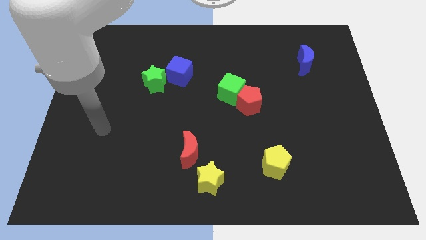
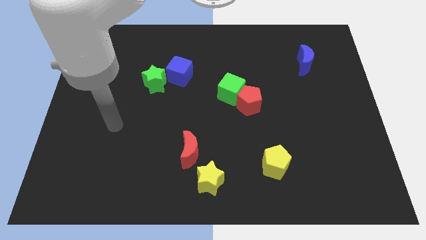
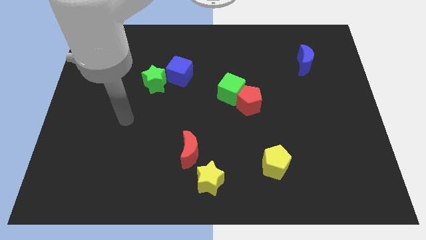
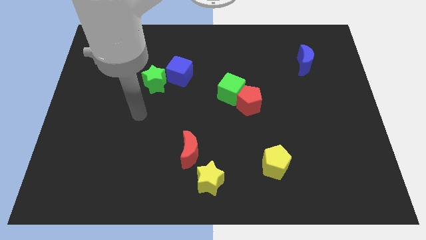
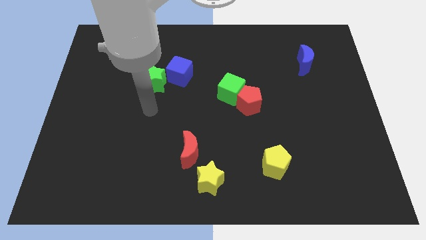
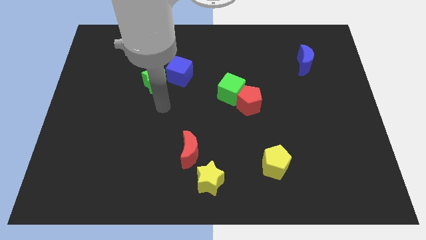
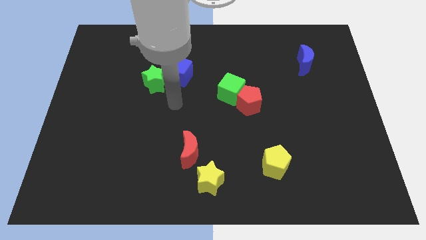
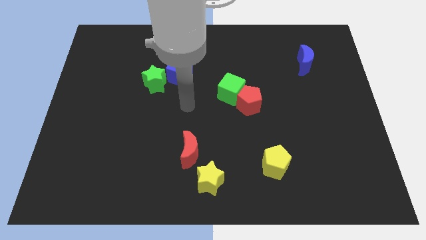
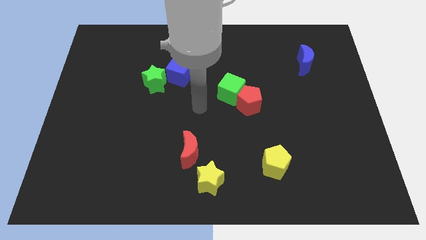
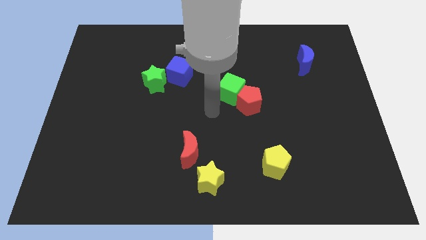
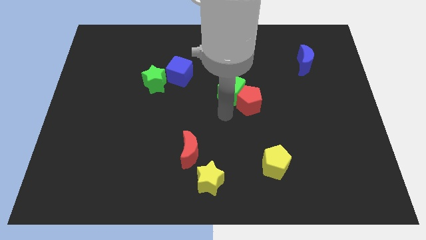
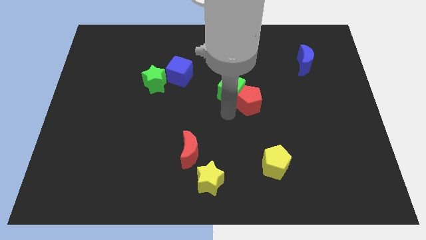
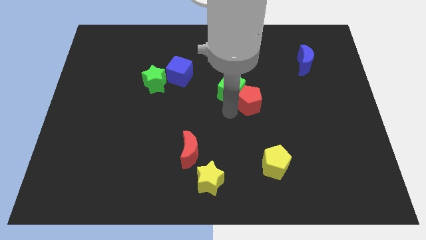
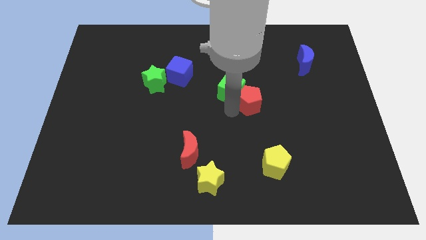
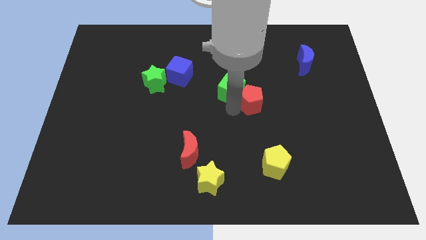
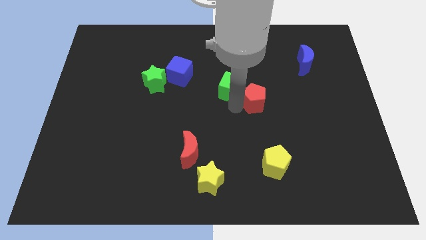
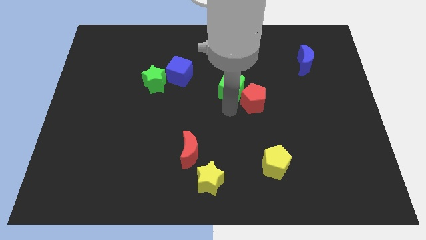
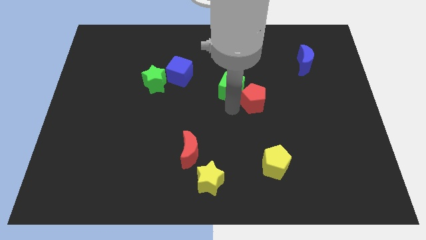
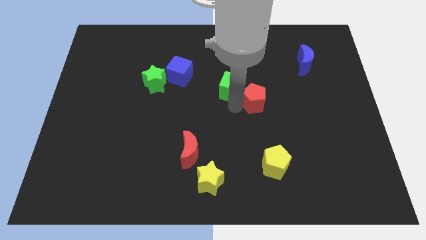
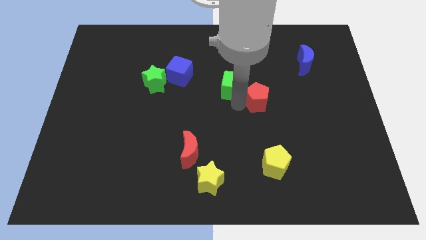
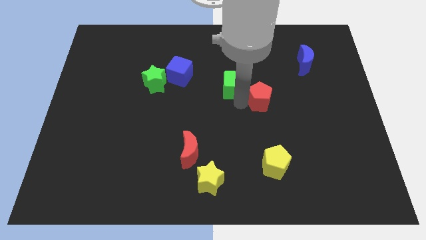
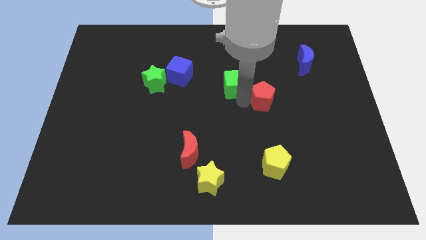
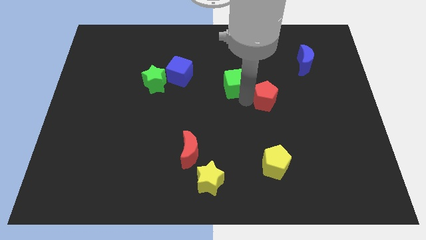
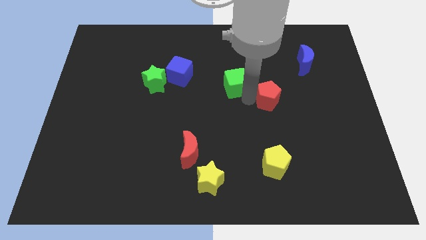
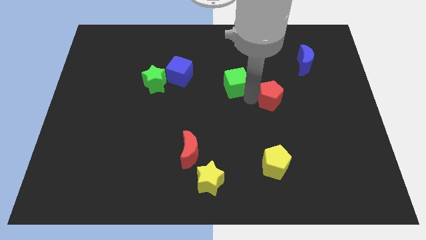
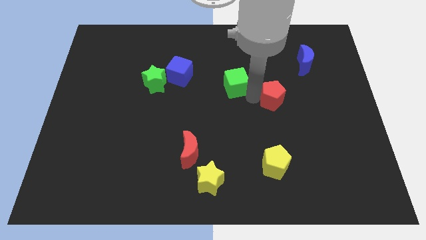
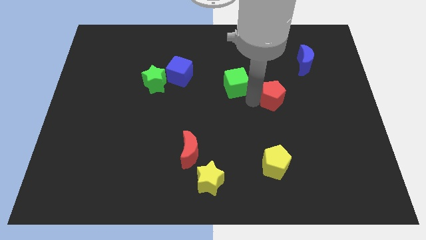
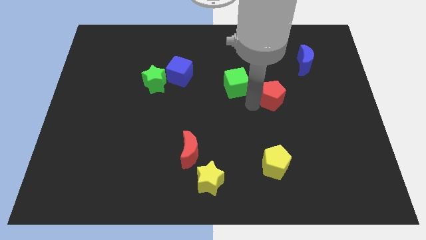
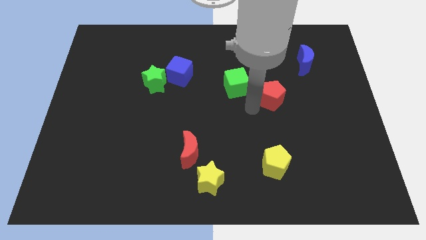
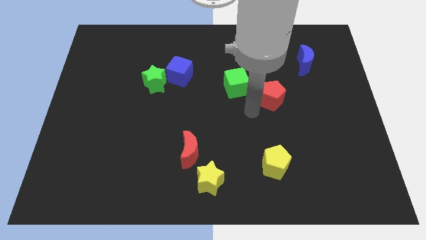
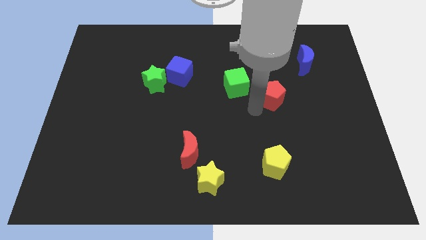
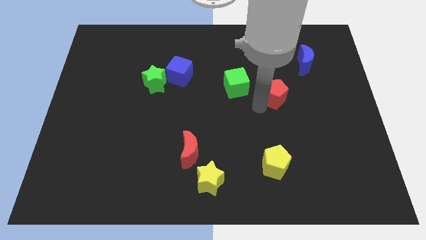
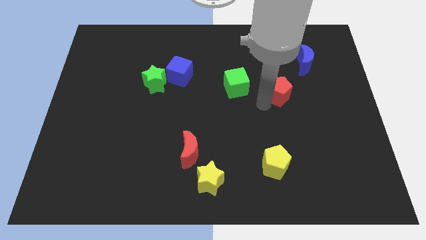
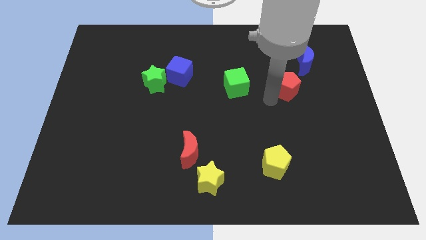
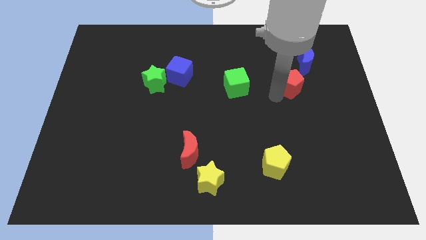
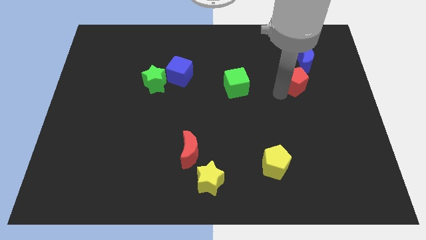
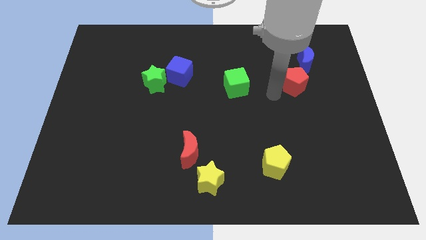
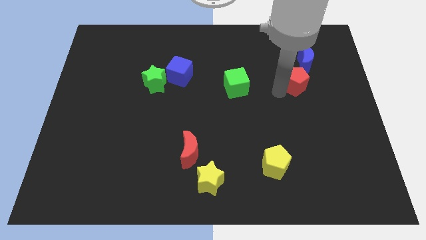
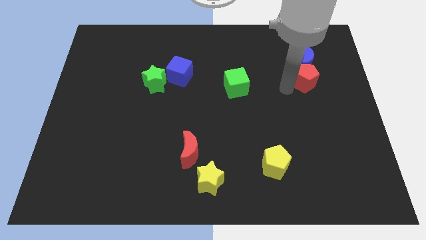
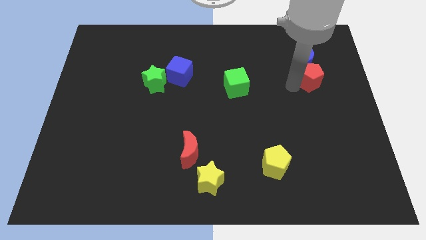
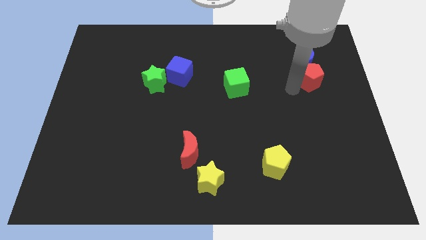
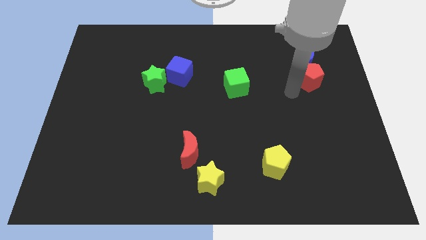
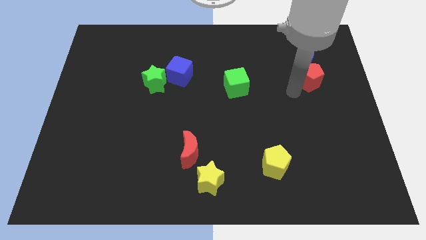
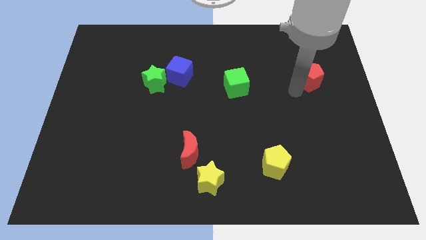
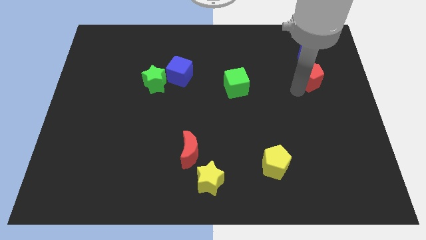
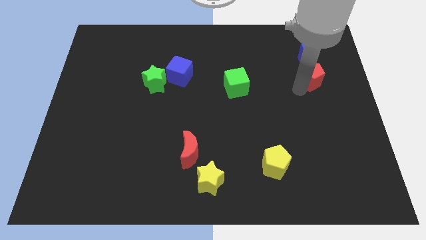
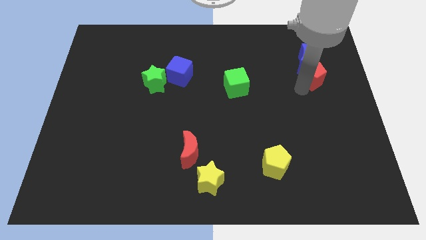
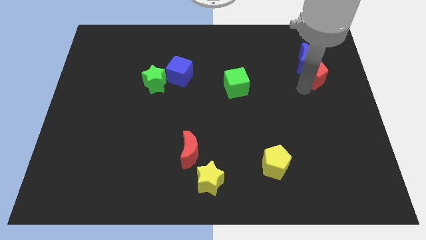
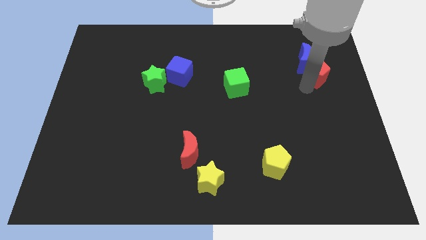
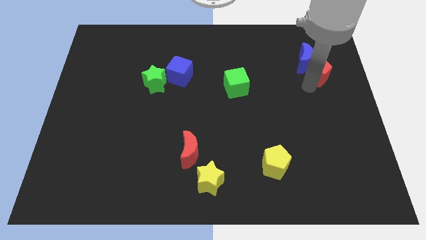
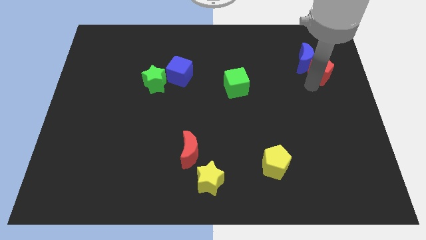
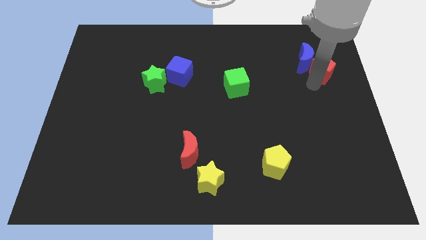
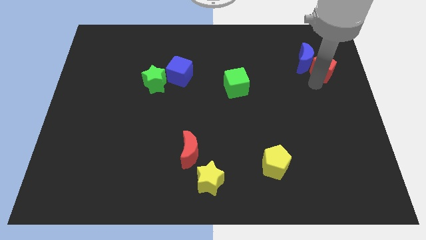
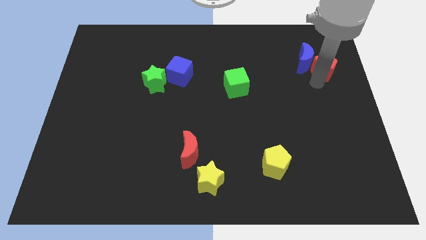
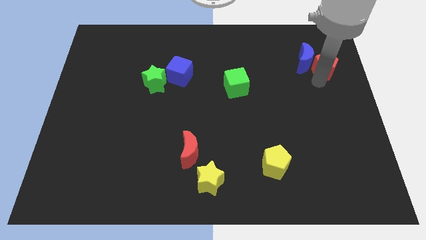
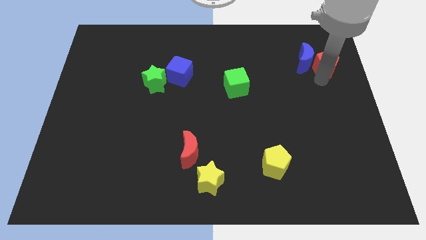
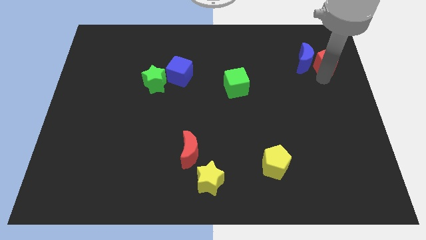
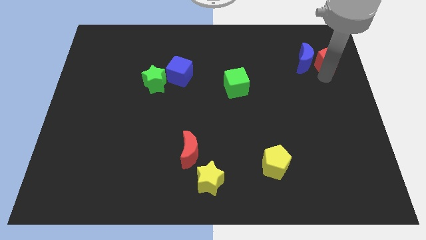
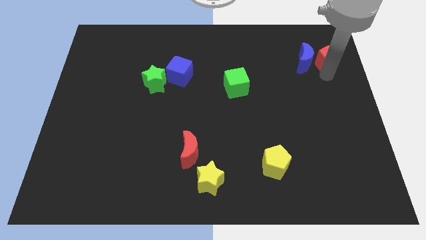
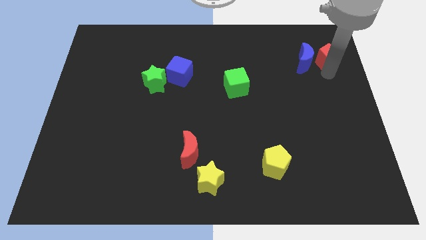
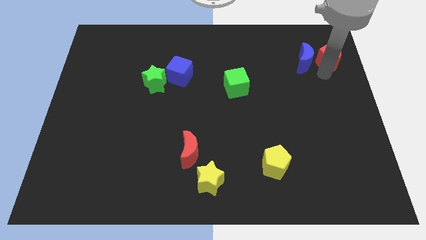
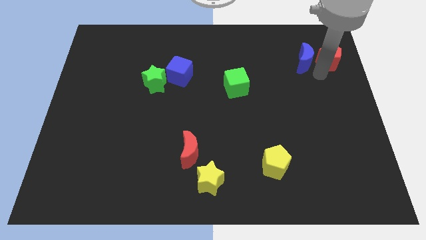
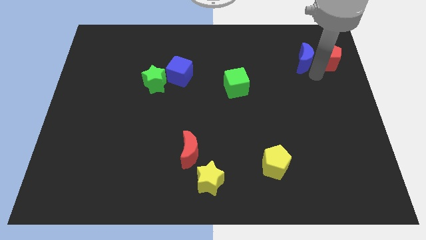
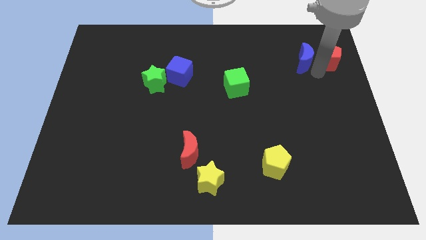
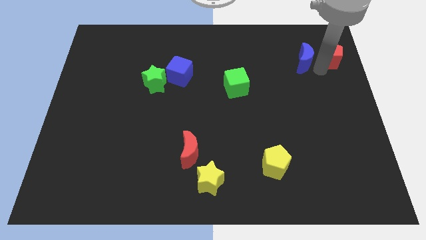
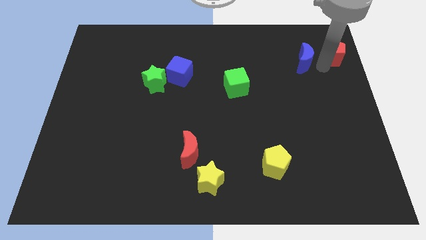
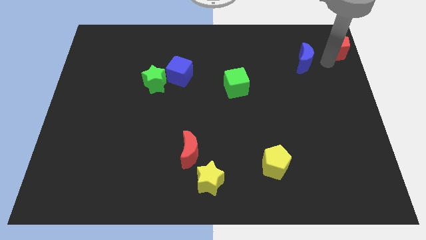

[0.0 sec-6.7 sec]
push the red pentagon to the upper right corner
